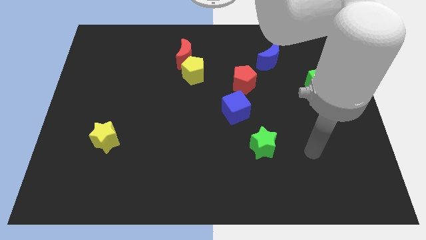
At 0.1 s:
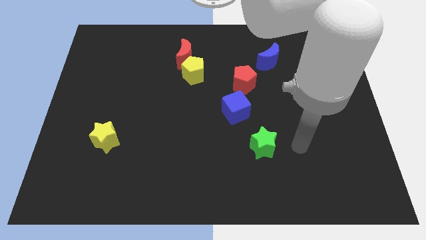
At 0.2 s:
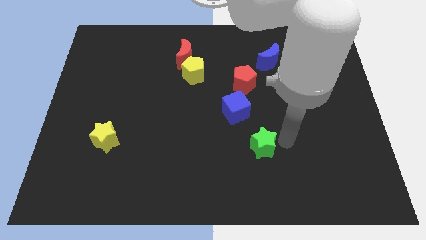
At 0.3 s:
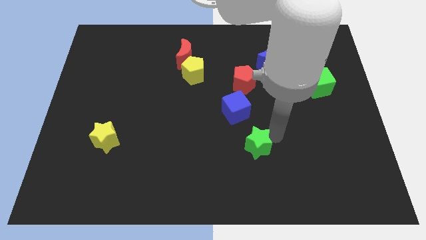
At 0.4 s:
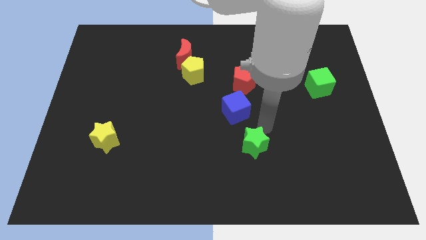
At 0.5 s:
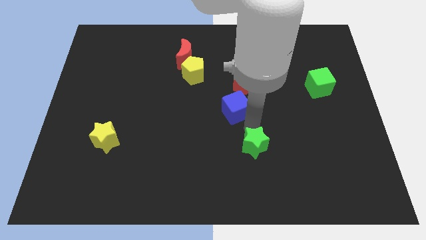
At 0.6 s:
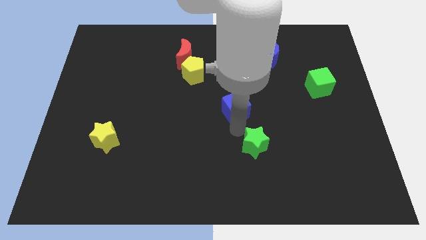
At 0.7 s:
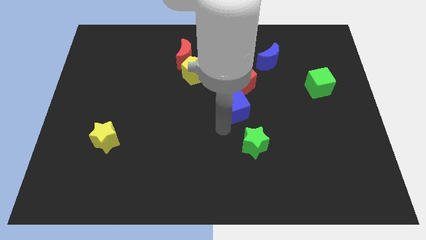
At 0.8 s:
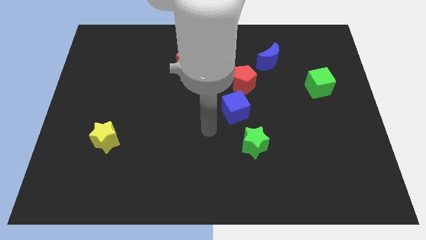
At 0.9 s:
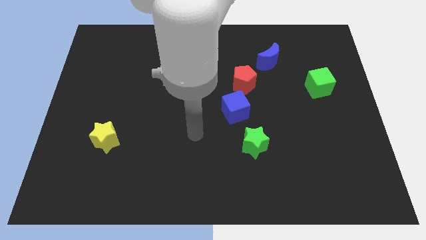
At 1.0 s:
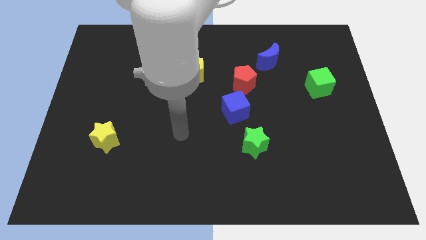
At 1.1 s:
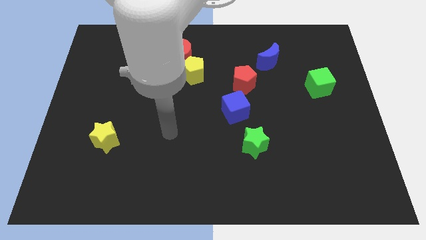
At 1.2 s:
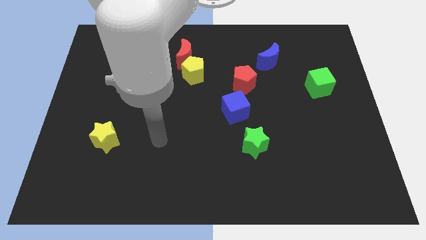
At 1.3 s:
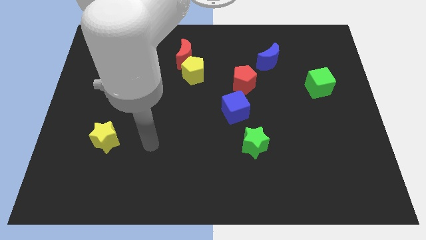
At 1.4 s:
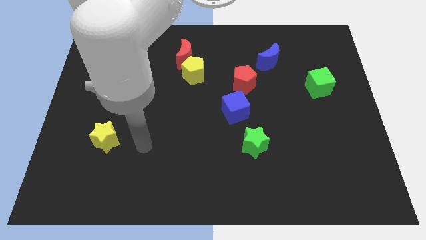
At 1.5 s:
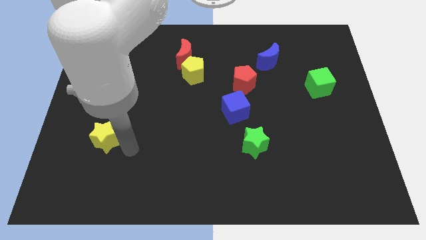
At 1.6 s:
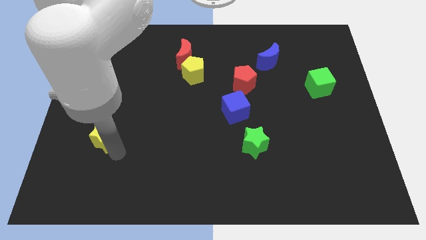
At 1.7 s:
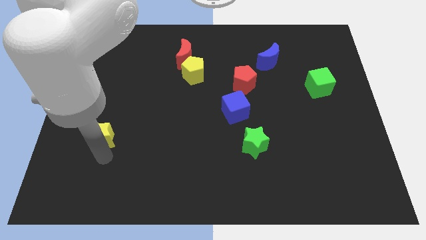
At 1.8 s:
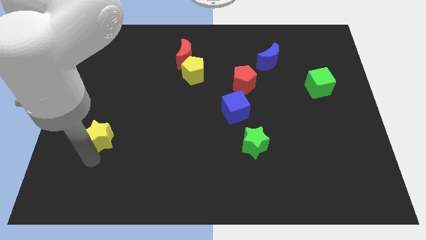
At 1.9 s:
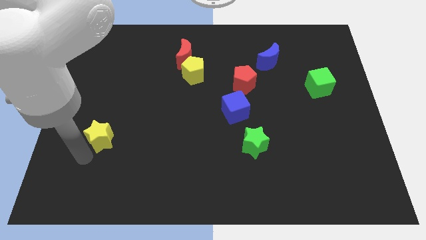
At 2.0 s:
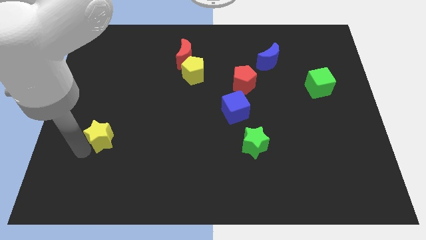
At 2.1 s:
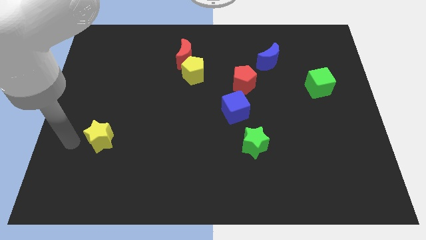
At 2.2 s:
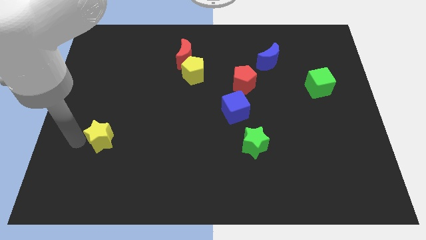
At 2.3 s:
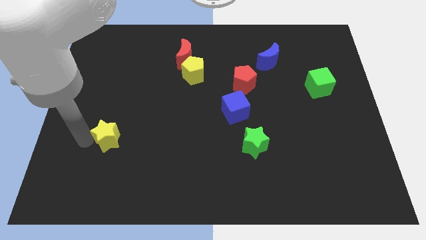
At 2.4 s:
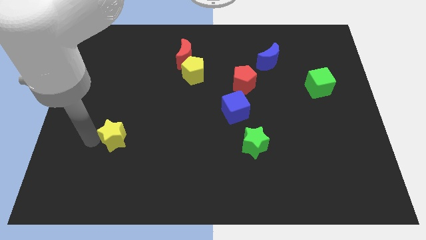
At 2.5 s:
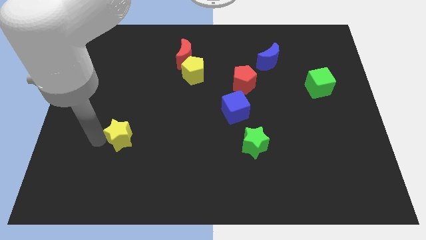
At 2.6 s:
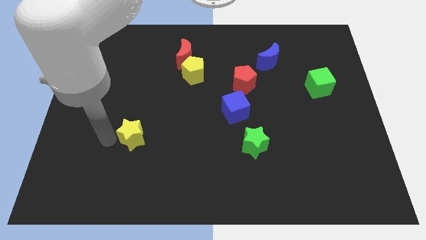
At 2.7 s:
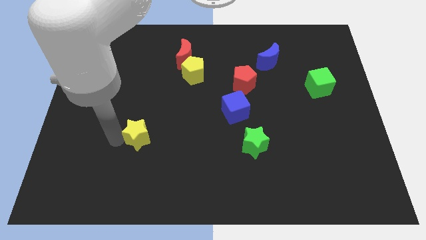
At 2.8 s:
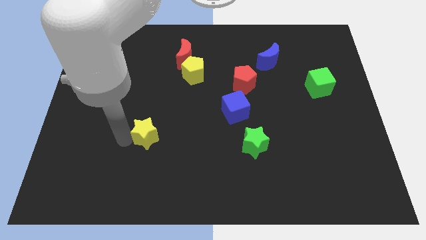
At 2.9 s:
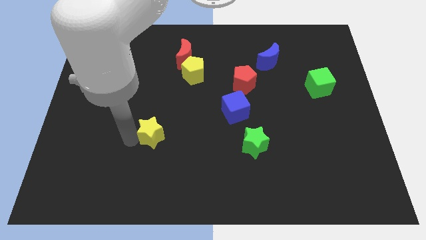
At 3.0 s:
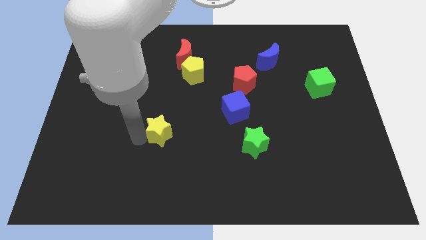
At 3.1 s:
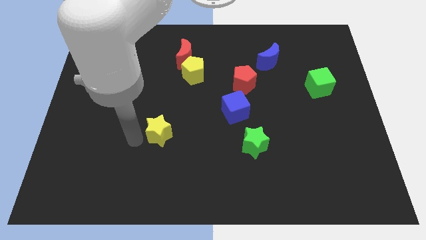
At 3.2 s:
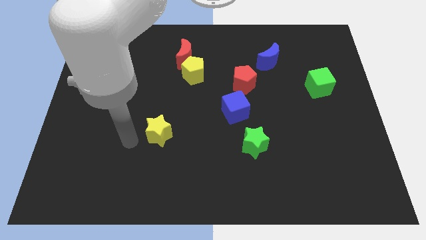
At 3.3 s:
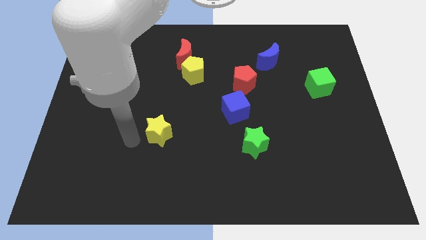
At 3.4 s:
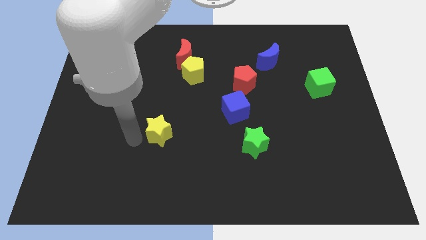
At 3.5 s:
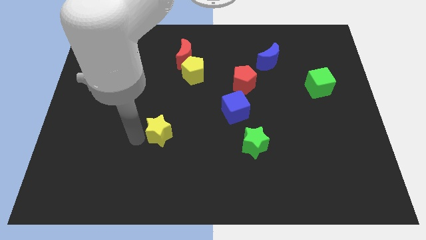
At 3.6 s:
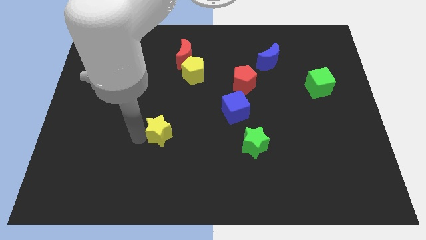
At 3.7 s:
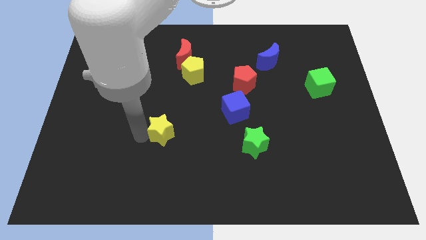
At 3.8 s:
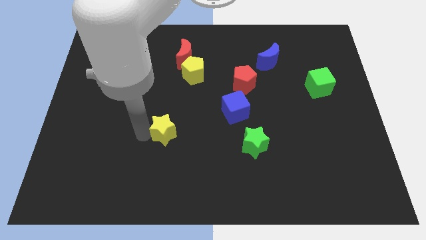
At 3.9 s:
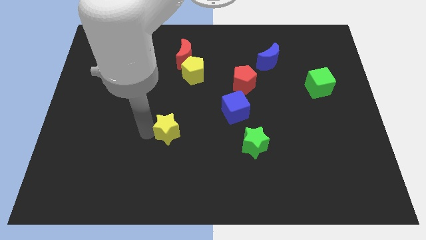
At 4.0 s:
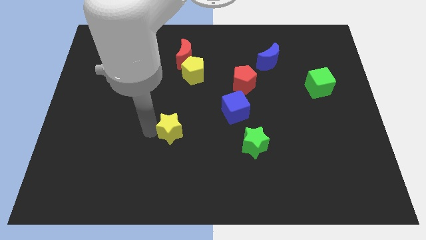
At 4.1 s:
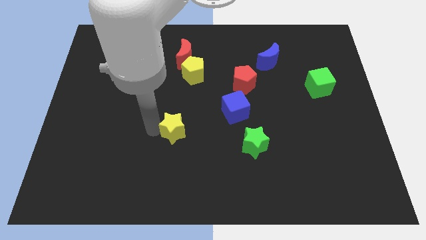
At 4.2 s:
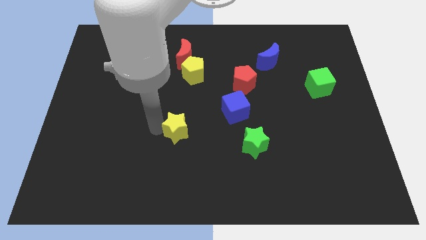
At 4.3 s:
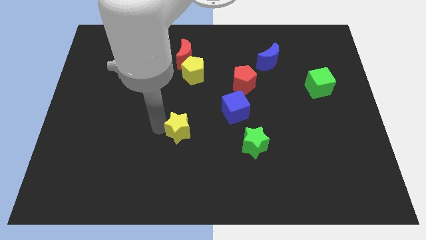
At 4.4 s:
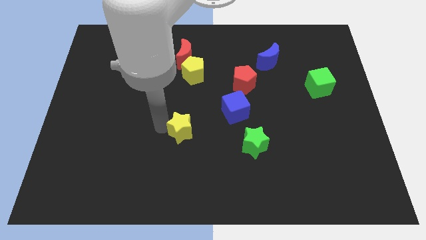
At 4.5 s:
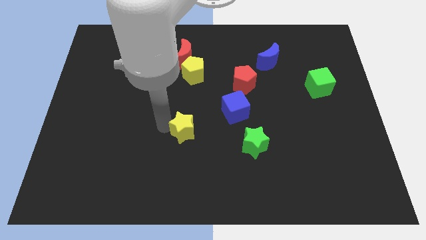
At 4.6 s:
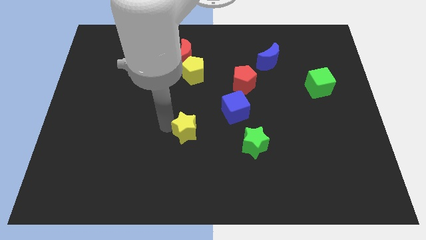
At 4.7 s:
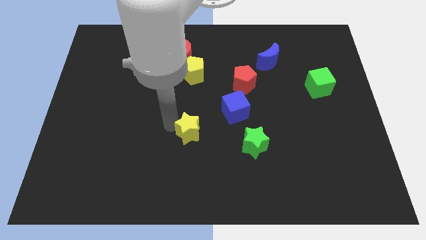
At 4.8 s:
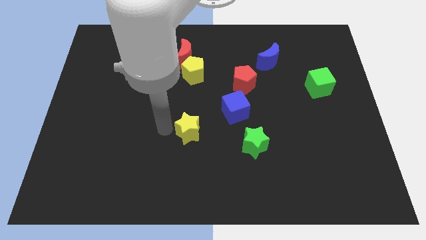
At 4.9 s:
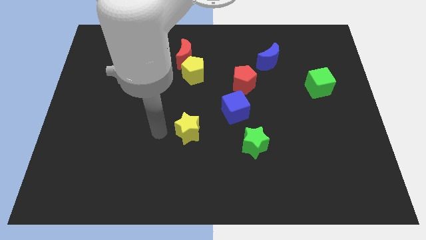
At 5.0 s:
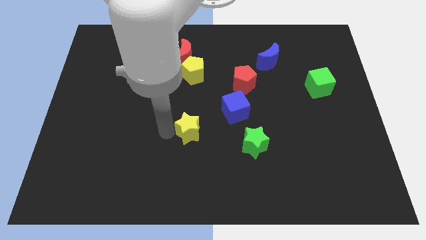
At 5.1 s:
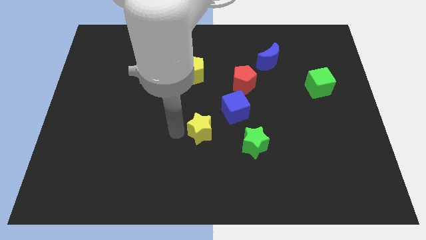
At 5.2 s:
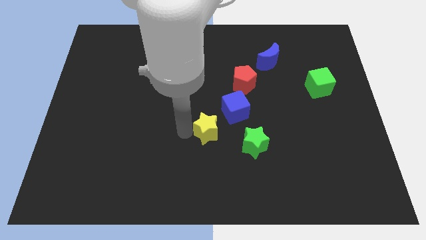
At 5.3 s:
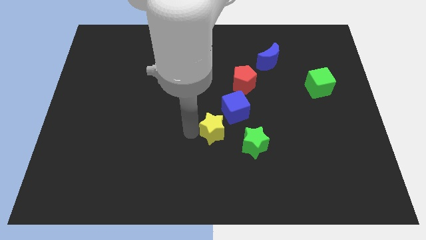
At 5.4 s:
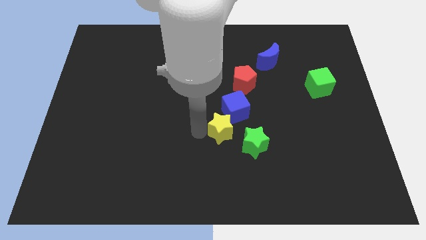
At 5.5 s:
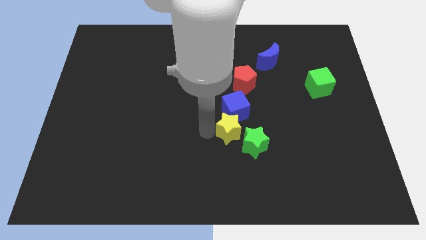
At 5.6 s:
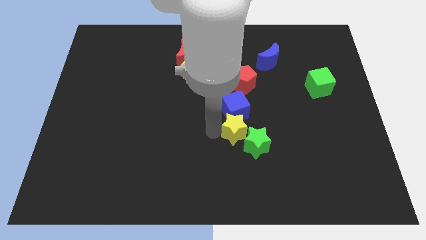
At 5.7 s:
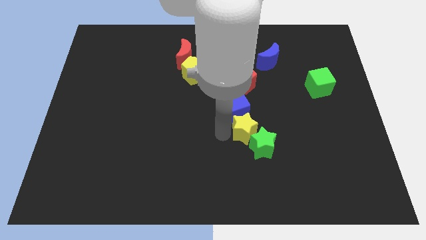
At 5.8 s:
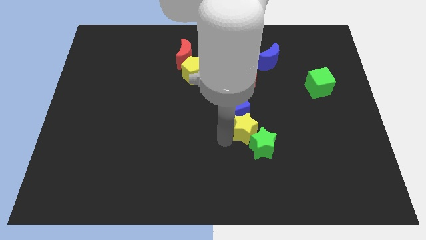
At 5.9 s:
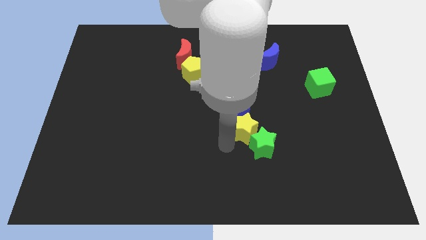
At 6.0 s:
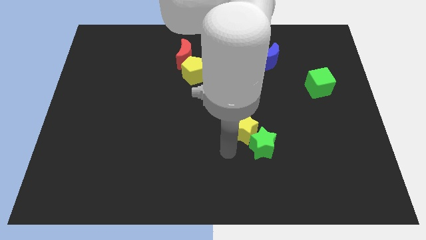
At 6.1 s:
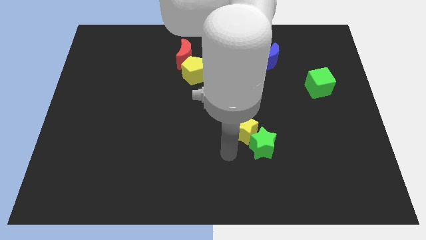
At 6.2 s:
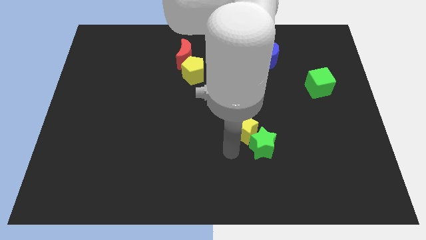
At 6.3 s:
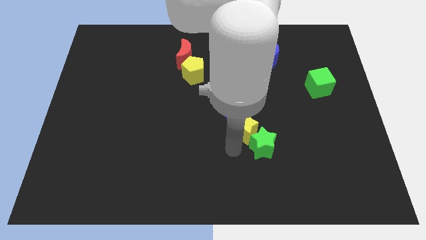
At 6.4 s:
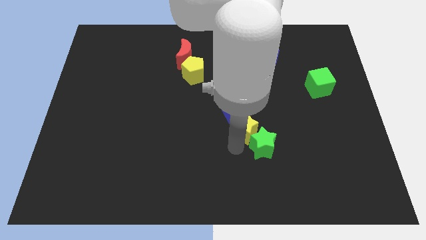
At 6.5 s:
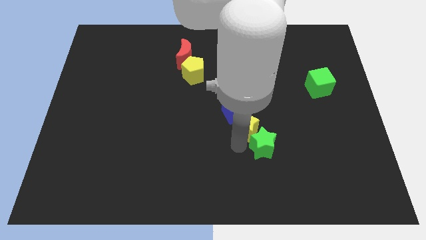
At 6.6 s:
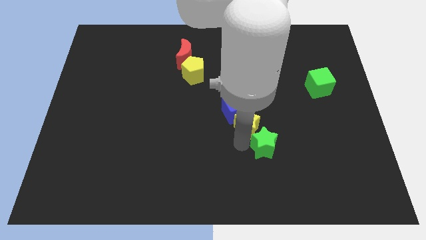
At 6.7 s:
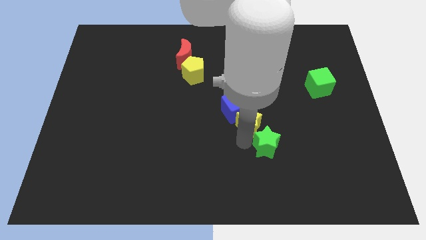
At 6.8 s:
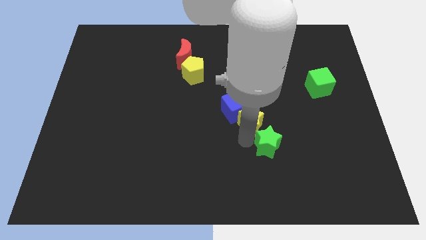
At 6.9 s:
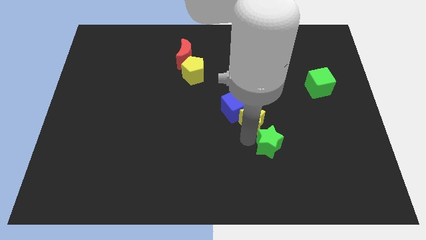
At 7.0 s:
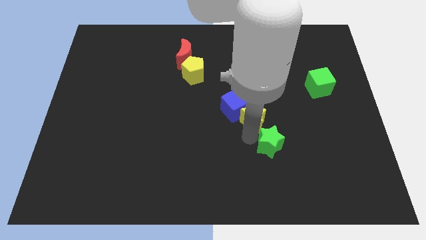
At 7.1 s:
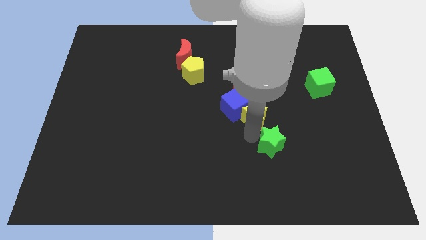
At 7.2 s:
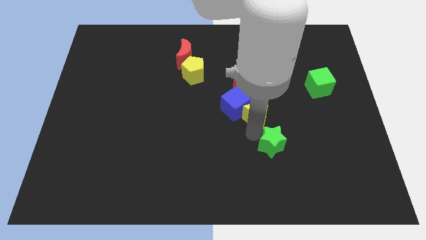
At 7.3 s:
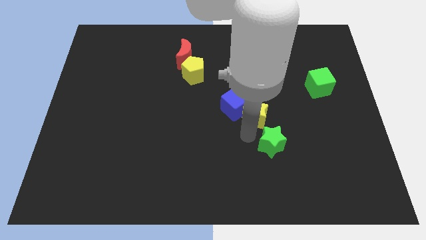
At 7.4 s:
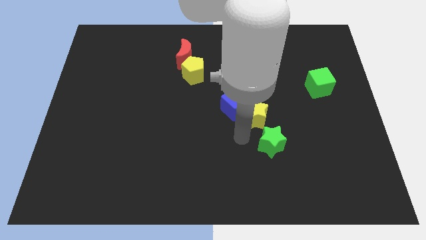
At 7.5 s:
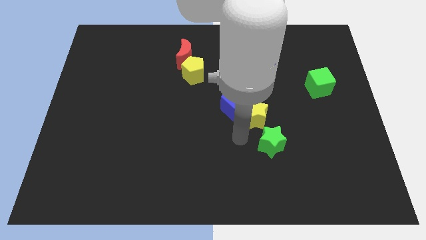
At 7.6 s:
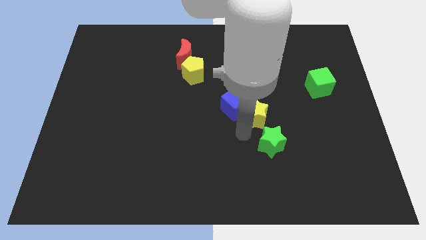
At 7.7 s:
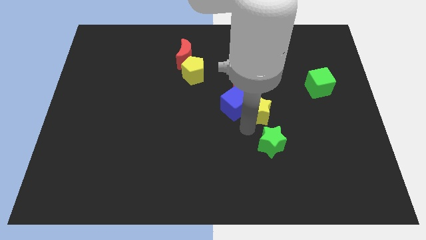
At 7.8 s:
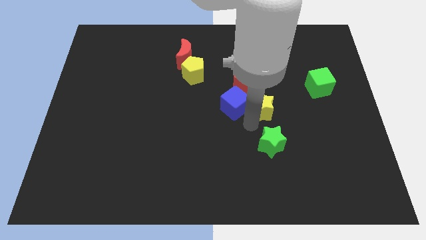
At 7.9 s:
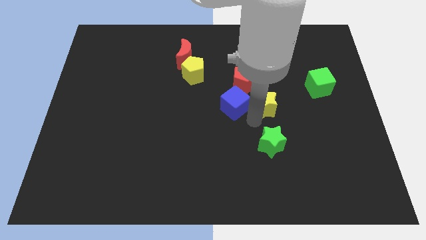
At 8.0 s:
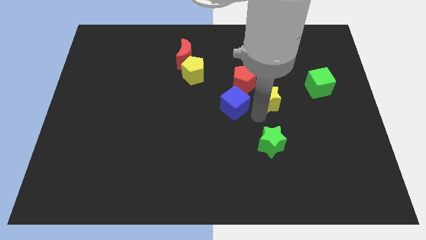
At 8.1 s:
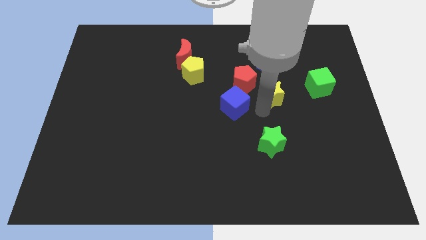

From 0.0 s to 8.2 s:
push the yellow star to the left of the green cube
